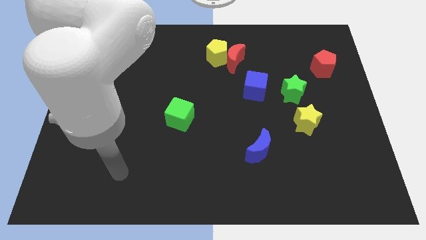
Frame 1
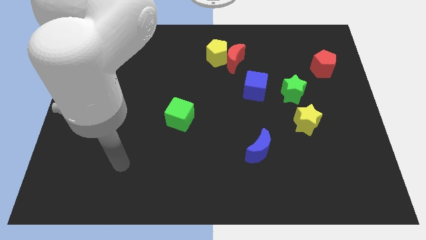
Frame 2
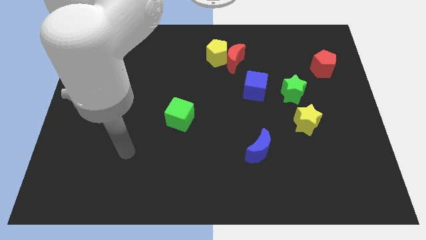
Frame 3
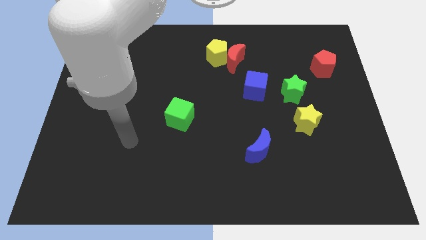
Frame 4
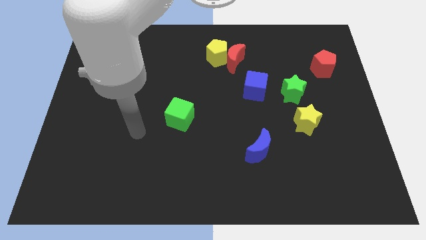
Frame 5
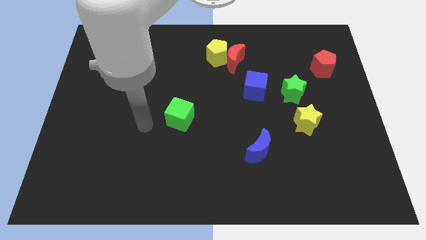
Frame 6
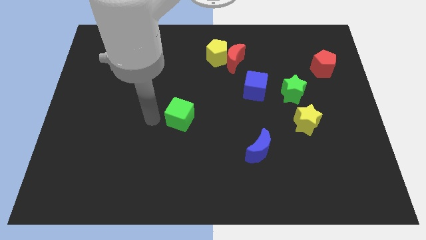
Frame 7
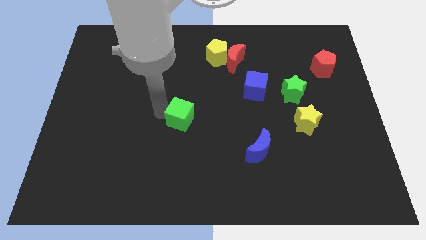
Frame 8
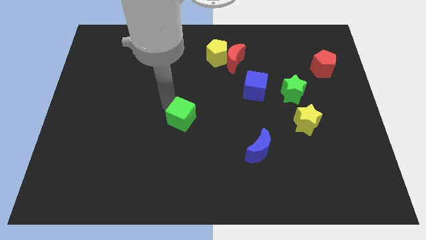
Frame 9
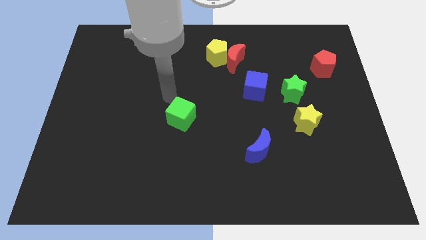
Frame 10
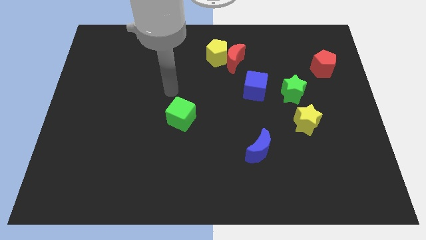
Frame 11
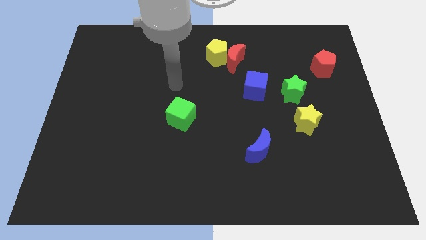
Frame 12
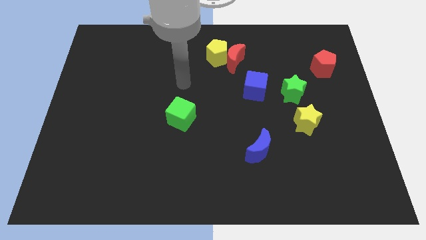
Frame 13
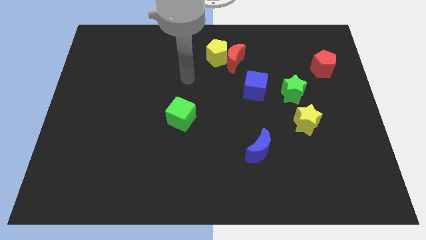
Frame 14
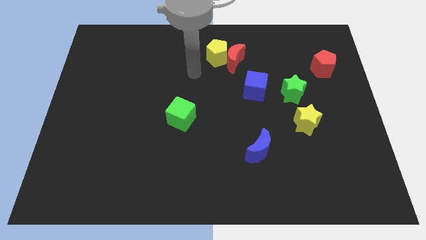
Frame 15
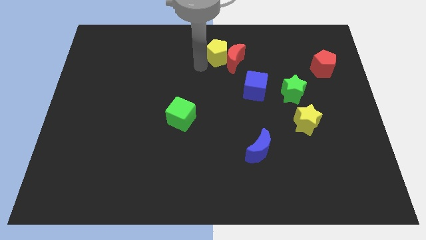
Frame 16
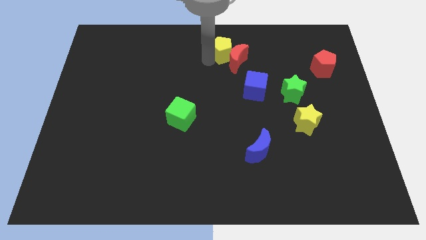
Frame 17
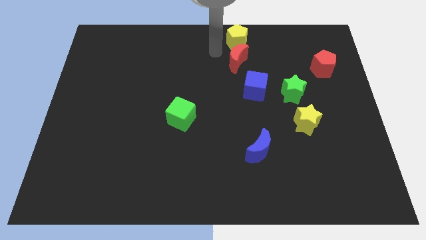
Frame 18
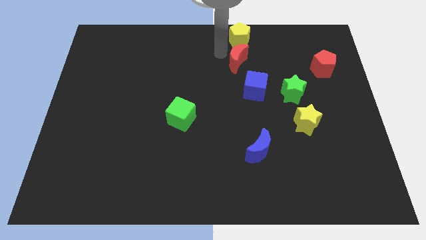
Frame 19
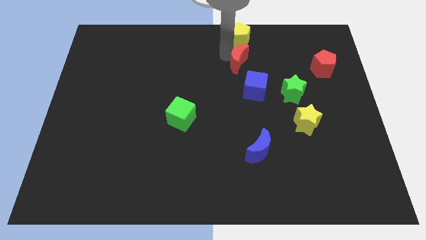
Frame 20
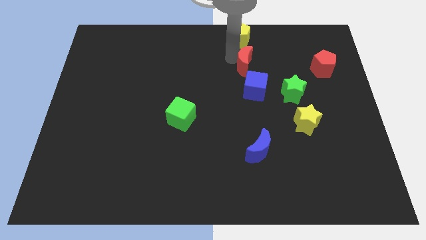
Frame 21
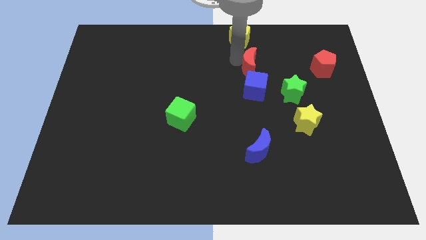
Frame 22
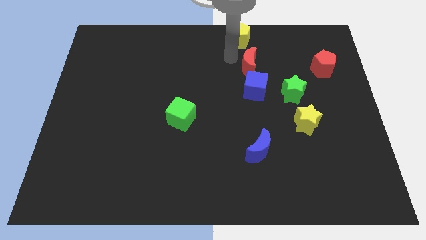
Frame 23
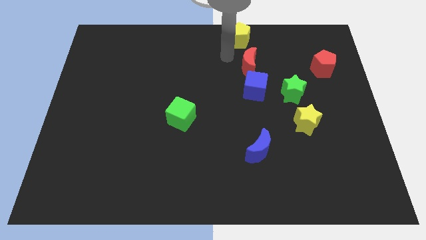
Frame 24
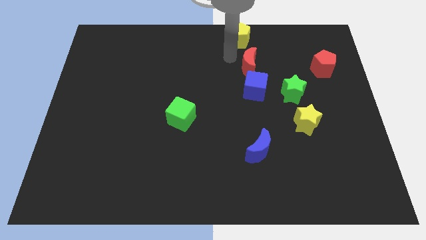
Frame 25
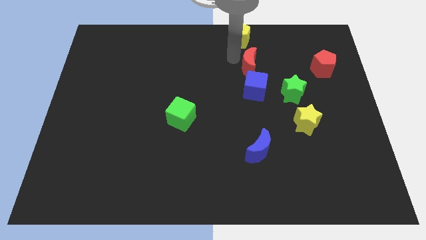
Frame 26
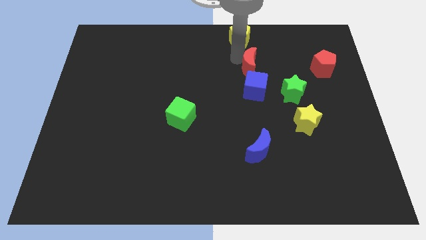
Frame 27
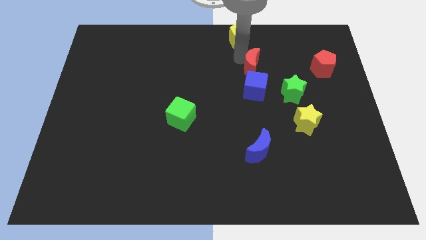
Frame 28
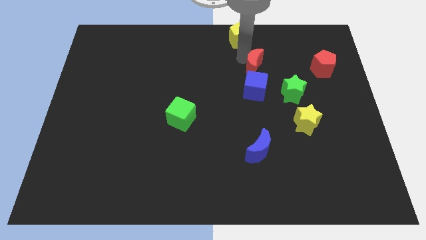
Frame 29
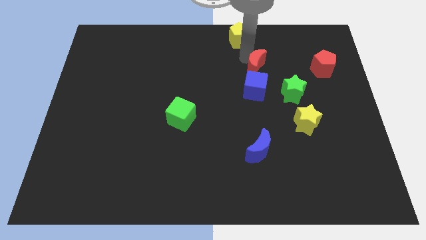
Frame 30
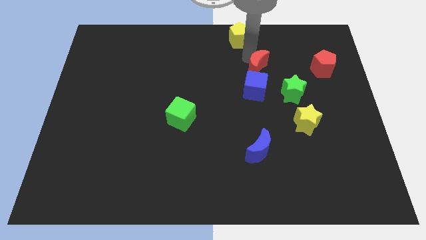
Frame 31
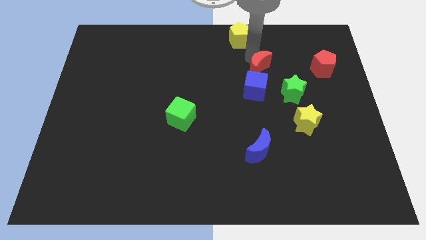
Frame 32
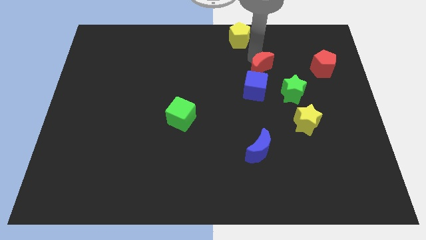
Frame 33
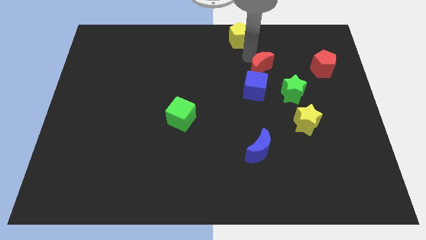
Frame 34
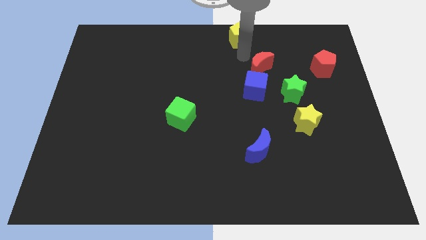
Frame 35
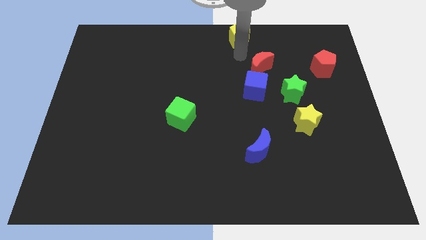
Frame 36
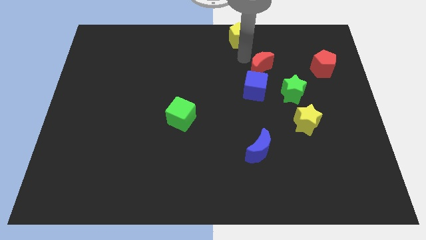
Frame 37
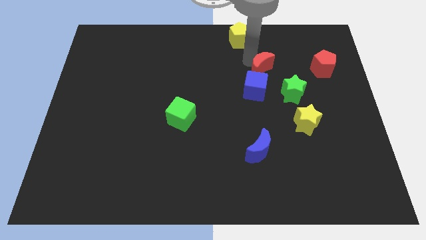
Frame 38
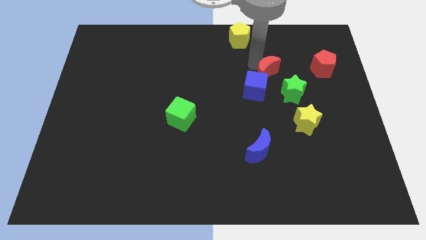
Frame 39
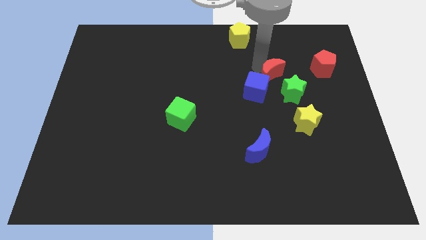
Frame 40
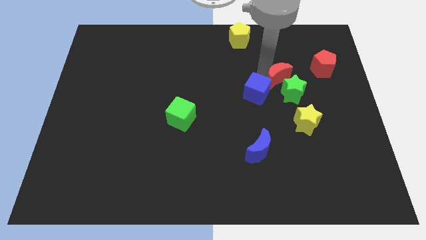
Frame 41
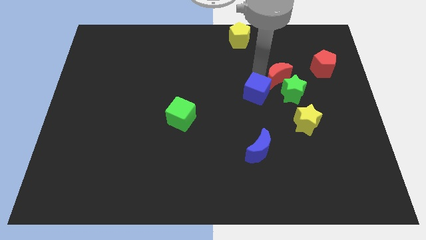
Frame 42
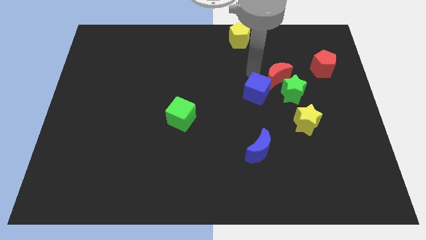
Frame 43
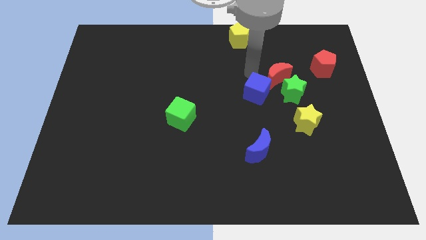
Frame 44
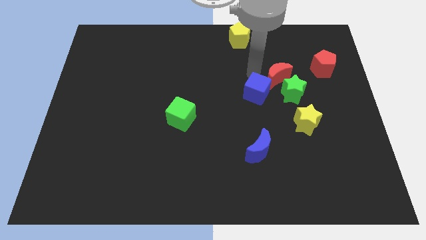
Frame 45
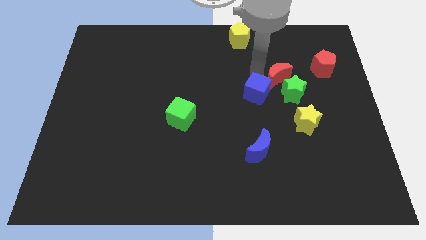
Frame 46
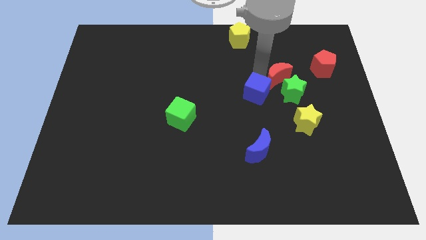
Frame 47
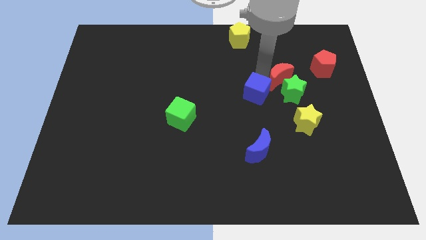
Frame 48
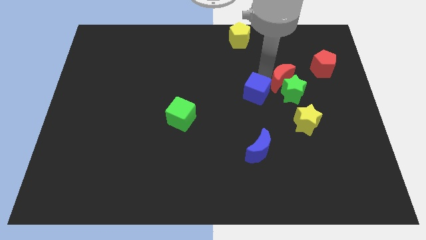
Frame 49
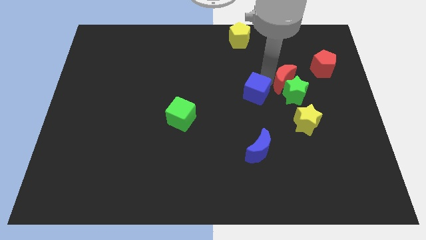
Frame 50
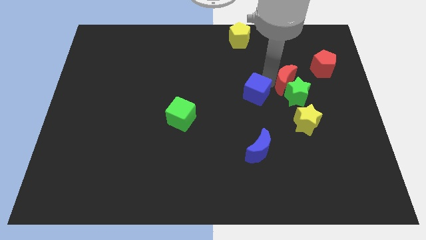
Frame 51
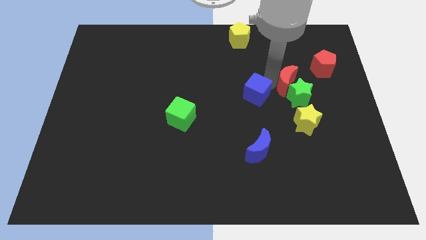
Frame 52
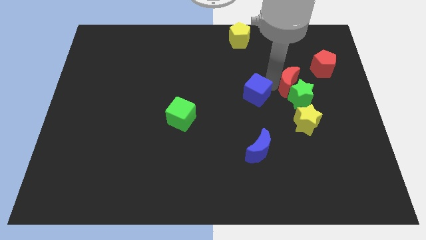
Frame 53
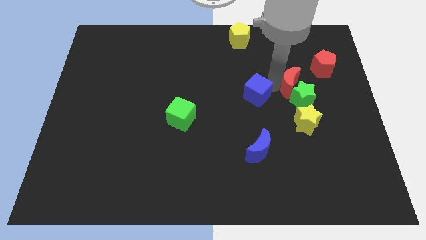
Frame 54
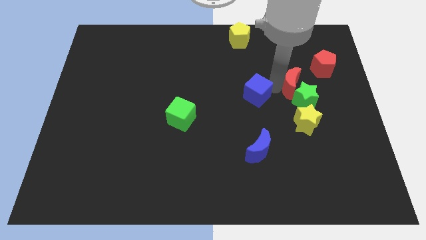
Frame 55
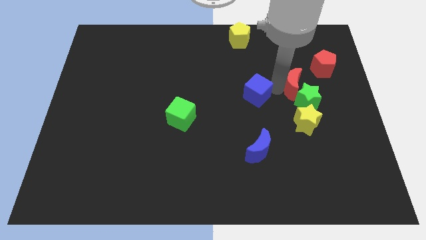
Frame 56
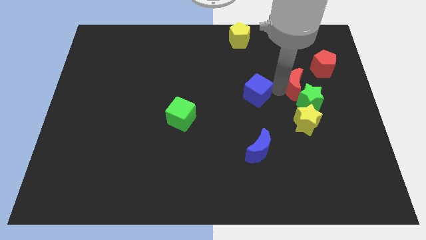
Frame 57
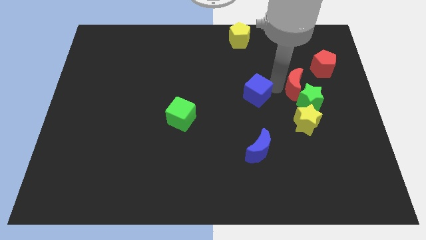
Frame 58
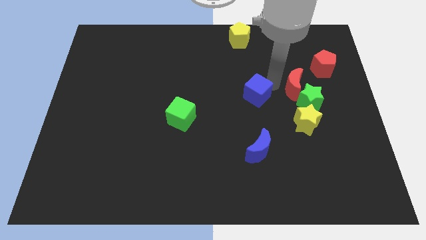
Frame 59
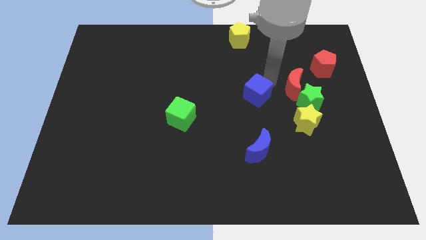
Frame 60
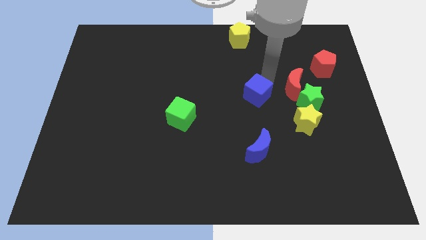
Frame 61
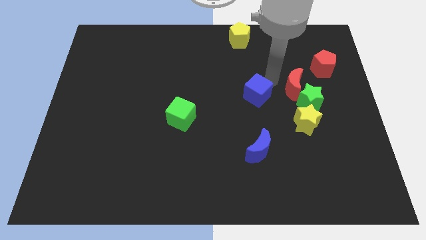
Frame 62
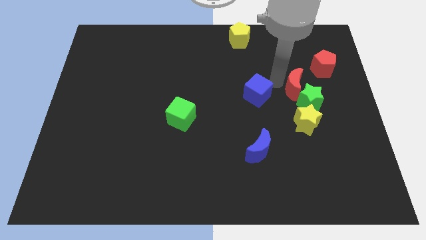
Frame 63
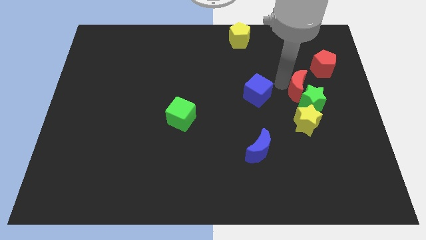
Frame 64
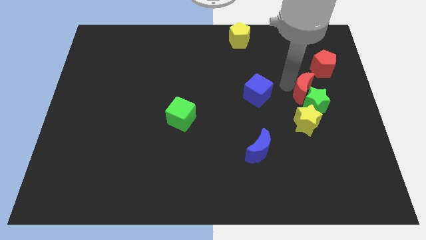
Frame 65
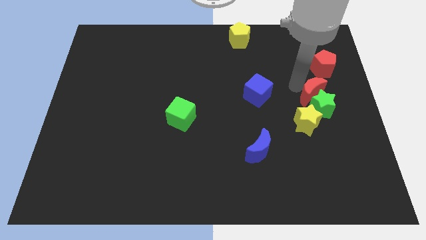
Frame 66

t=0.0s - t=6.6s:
move the red moon downwards and right diagonally

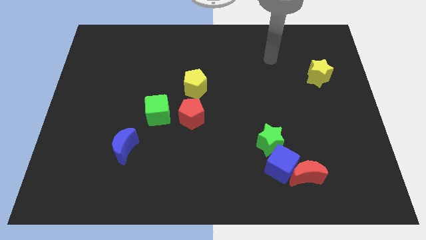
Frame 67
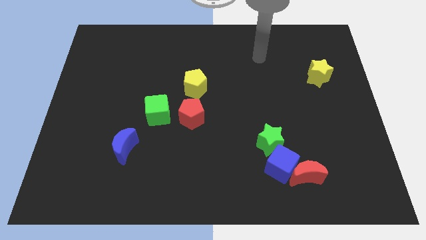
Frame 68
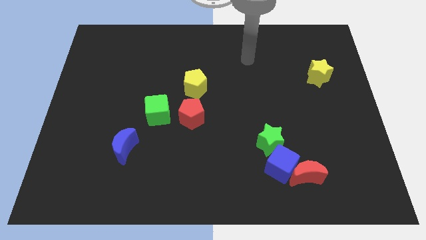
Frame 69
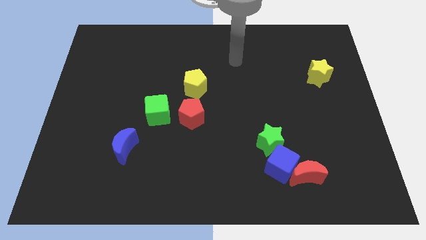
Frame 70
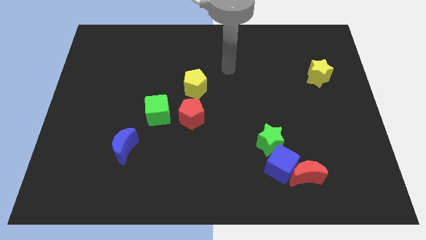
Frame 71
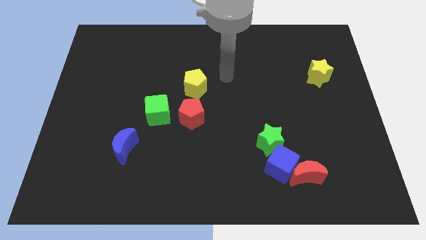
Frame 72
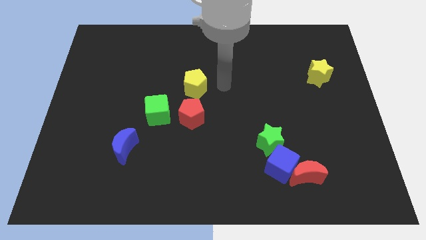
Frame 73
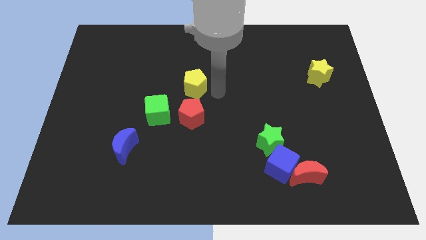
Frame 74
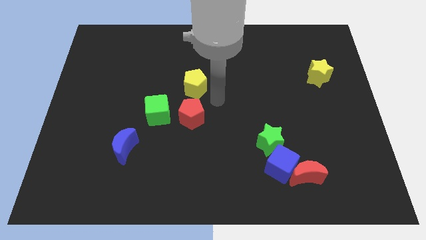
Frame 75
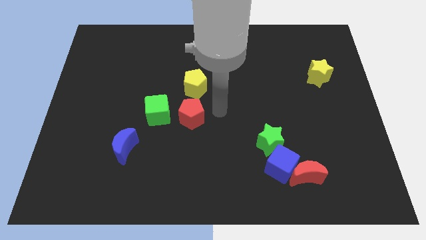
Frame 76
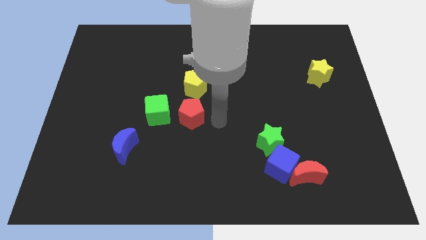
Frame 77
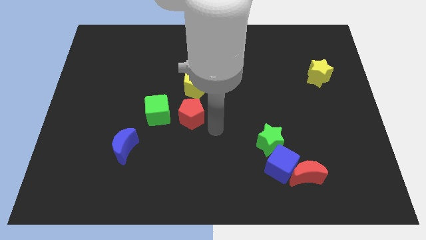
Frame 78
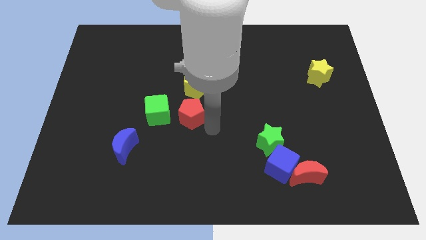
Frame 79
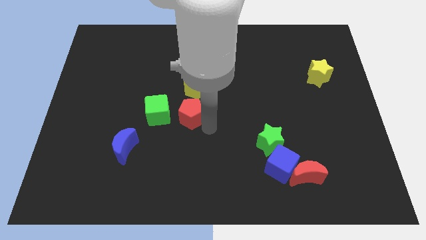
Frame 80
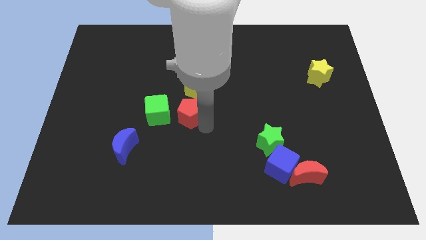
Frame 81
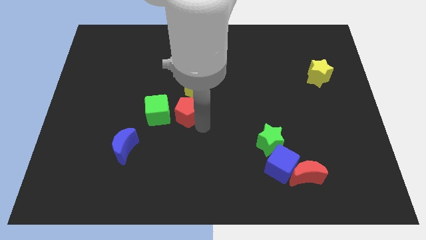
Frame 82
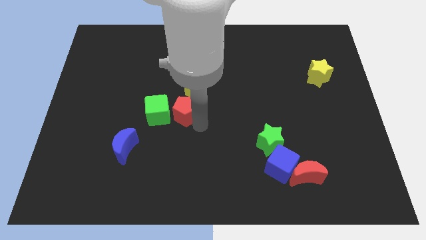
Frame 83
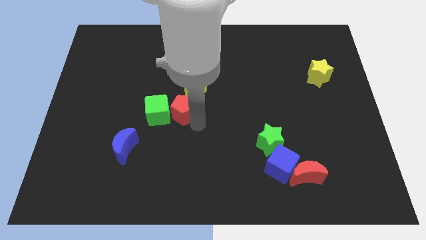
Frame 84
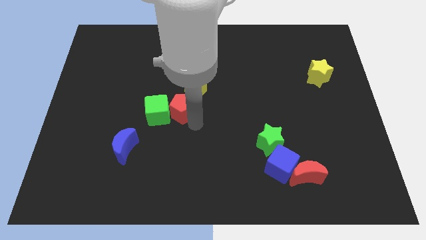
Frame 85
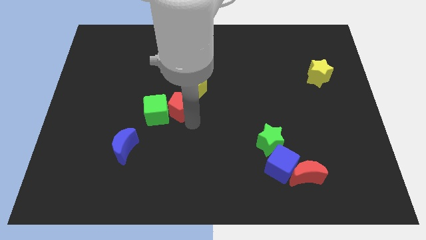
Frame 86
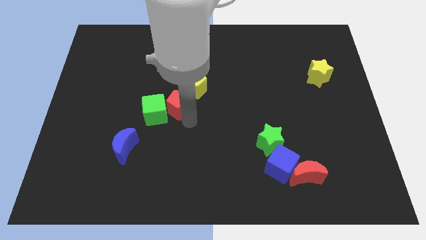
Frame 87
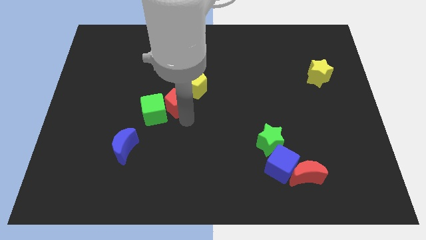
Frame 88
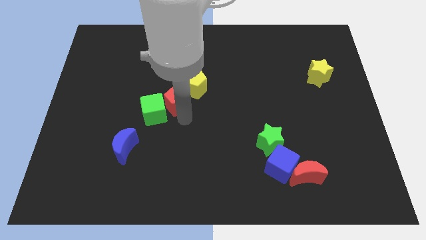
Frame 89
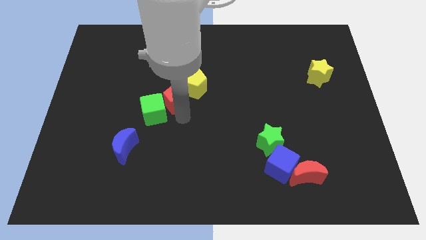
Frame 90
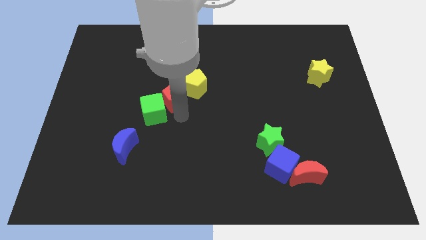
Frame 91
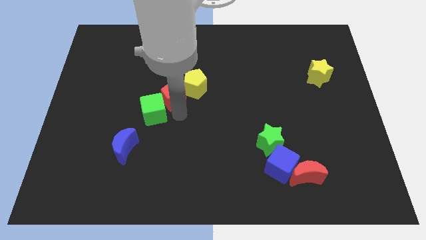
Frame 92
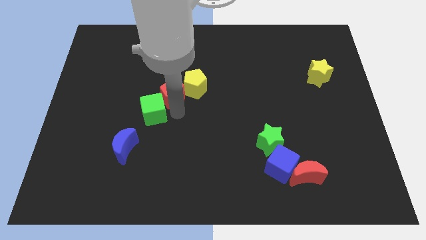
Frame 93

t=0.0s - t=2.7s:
push the red pentagon a little bit up and to the left
